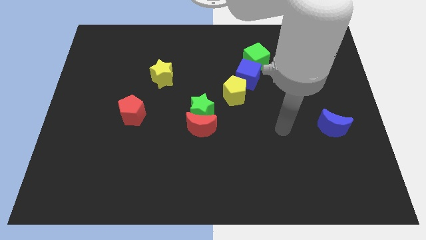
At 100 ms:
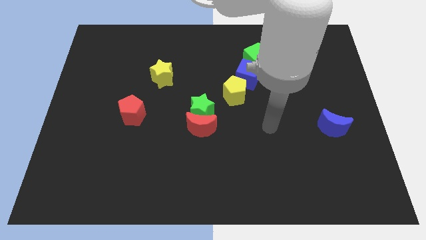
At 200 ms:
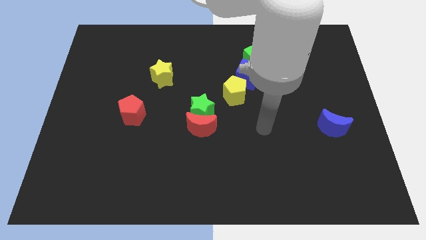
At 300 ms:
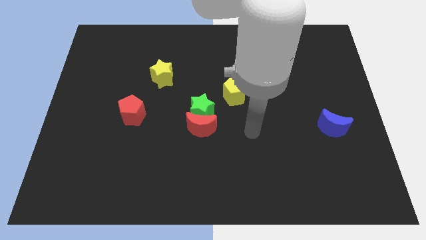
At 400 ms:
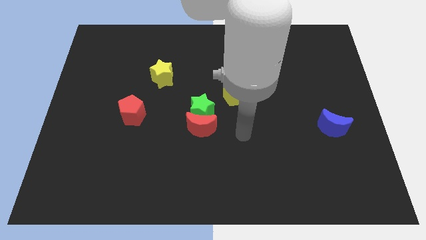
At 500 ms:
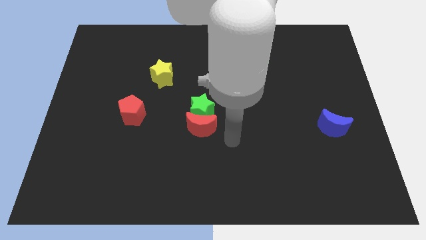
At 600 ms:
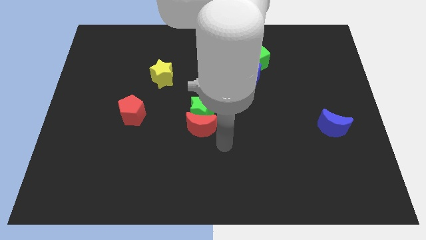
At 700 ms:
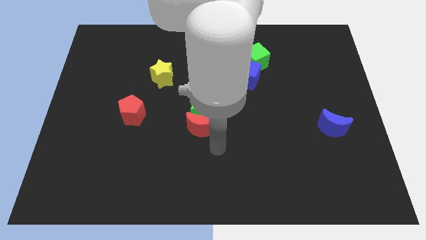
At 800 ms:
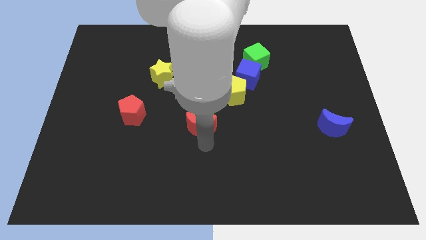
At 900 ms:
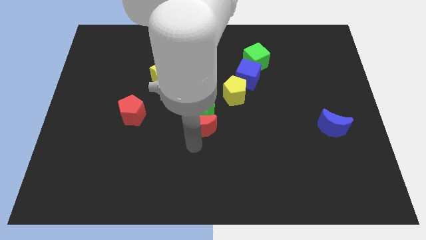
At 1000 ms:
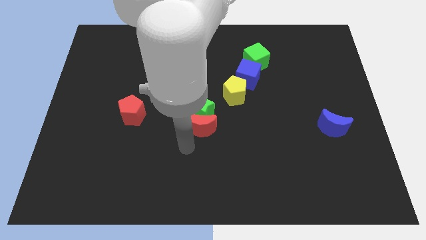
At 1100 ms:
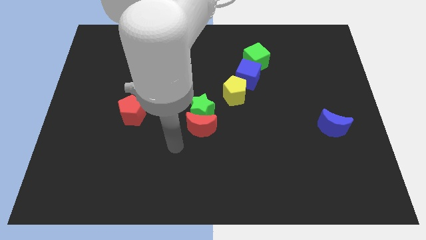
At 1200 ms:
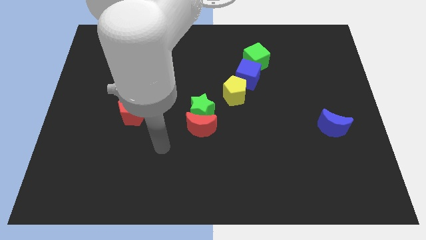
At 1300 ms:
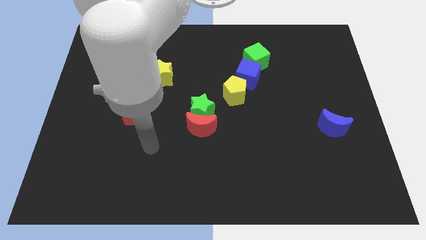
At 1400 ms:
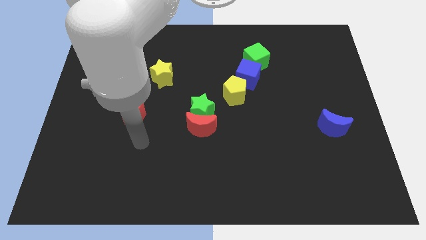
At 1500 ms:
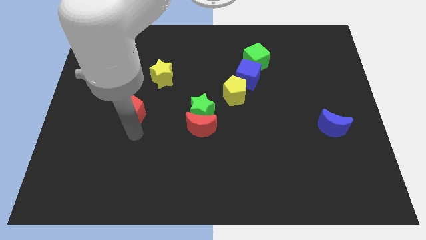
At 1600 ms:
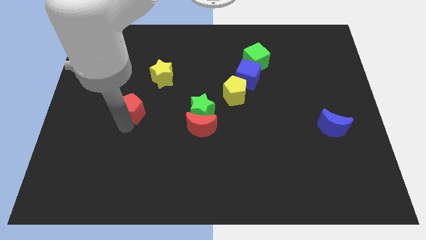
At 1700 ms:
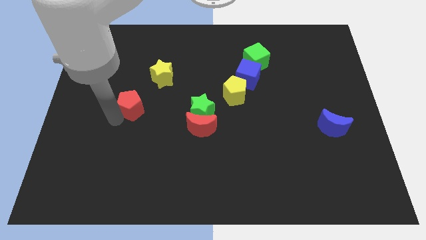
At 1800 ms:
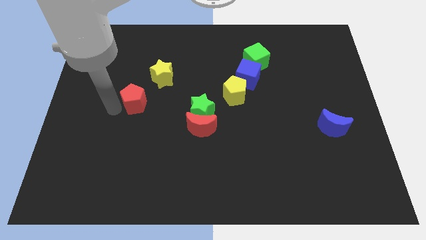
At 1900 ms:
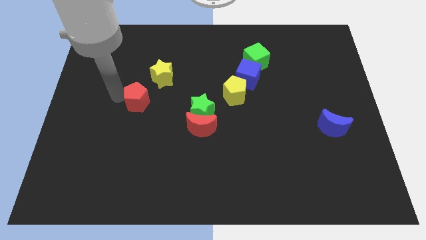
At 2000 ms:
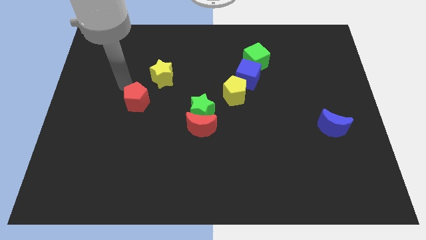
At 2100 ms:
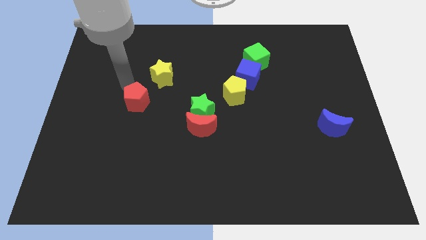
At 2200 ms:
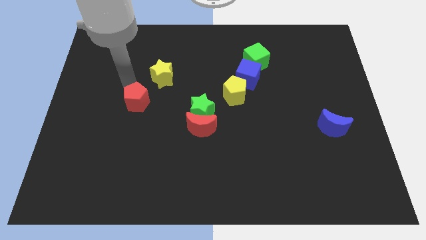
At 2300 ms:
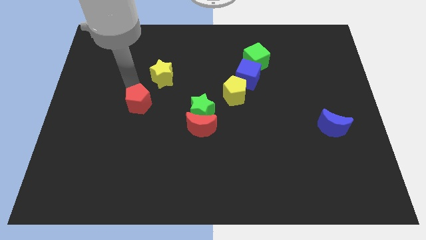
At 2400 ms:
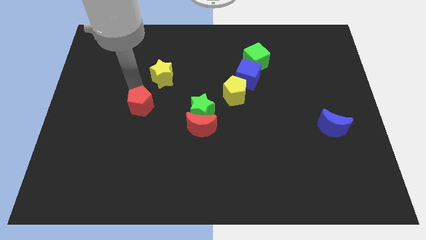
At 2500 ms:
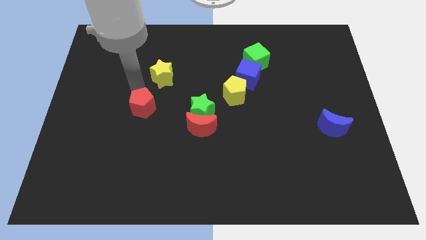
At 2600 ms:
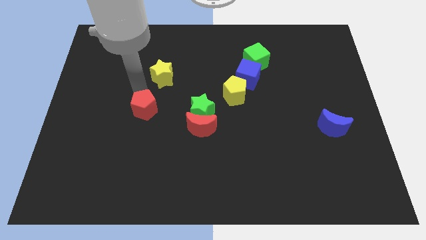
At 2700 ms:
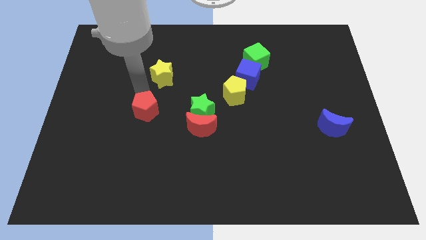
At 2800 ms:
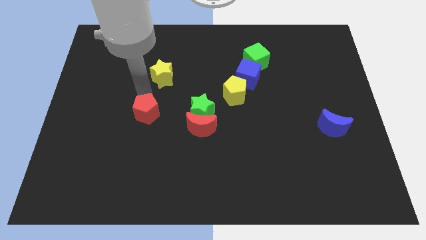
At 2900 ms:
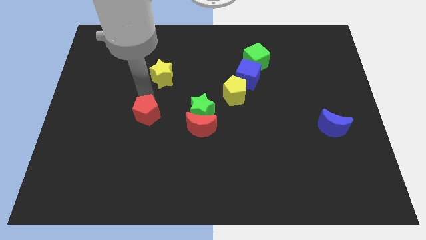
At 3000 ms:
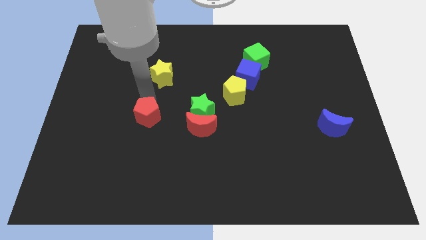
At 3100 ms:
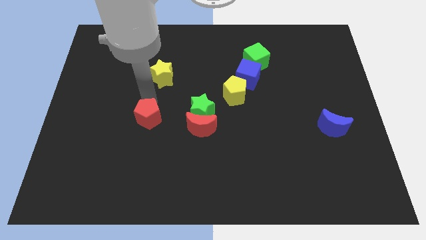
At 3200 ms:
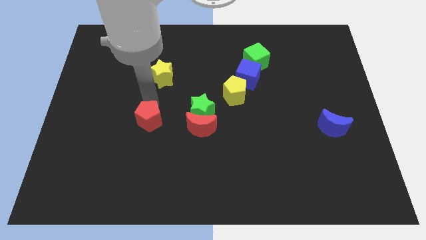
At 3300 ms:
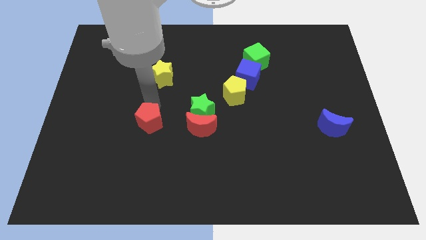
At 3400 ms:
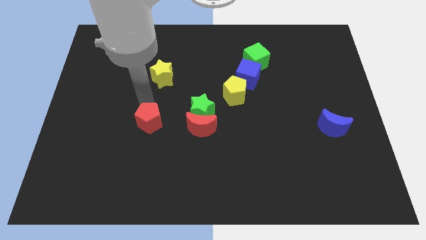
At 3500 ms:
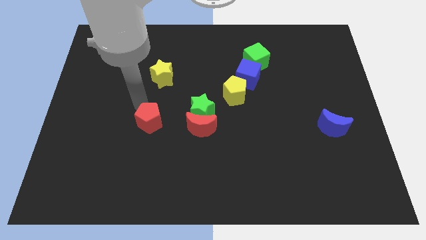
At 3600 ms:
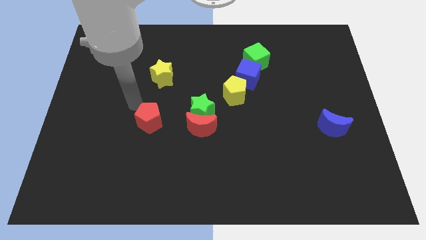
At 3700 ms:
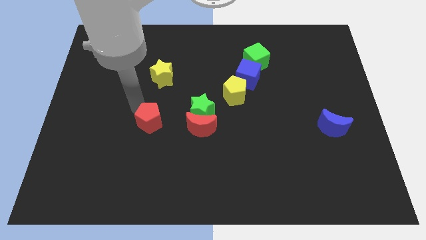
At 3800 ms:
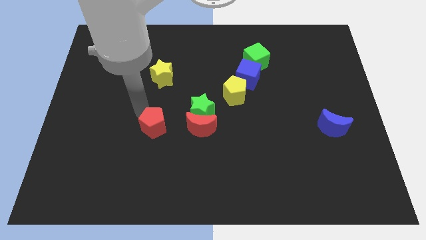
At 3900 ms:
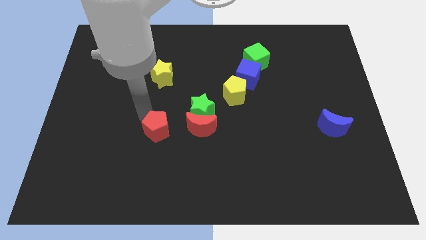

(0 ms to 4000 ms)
push the red pentagon somewhat downwards and to the right diagonally

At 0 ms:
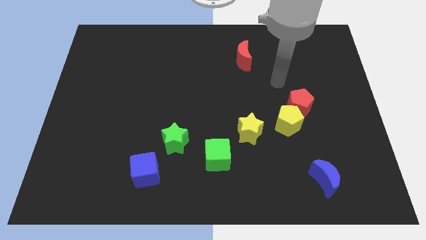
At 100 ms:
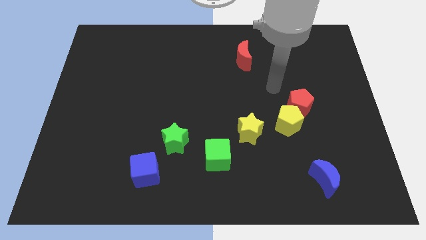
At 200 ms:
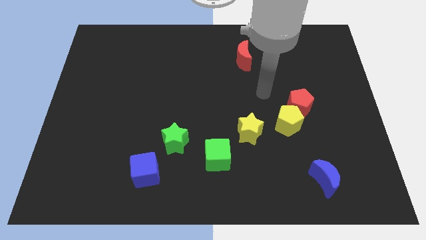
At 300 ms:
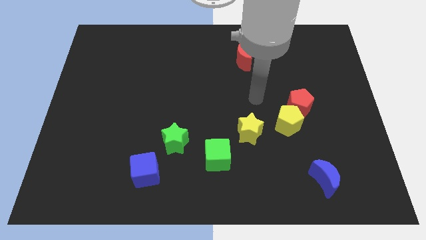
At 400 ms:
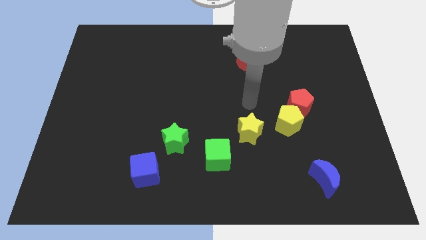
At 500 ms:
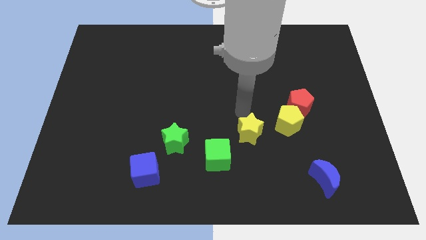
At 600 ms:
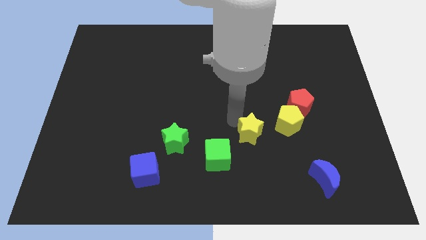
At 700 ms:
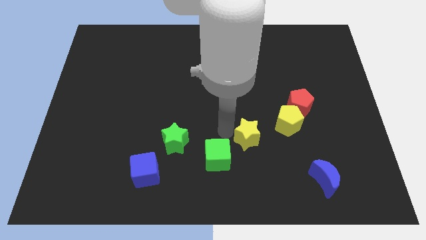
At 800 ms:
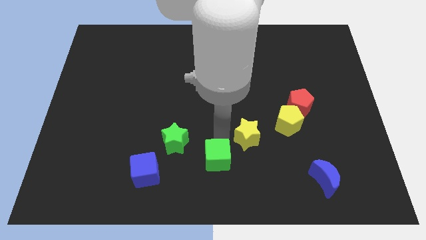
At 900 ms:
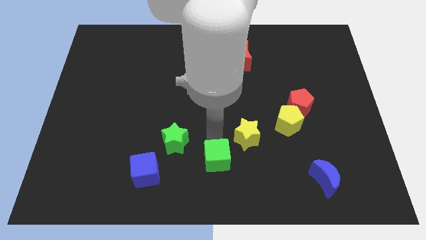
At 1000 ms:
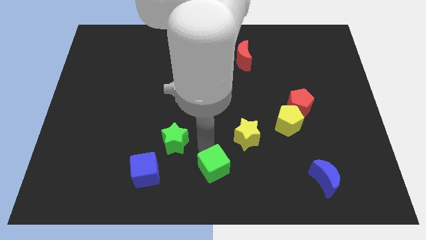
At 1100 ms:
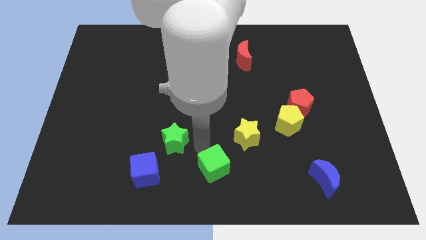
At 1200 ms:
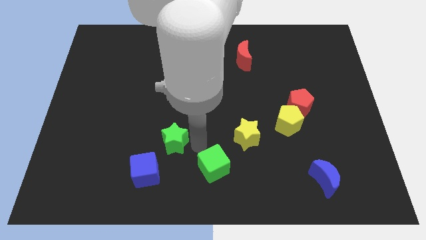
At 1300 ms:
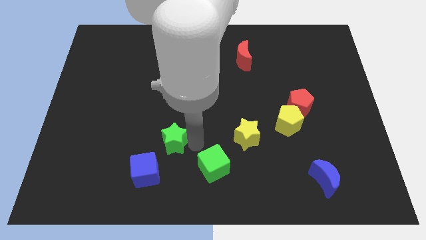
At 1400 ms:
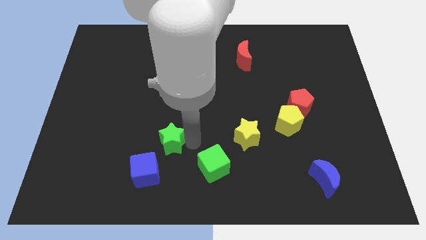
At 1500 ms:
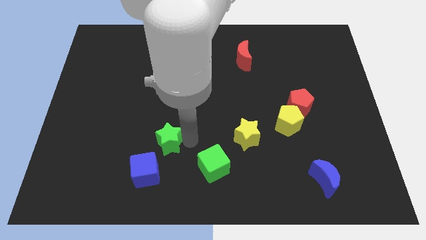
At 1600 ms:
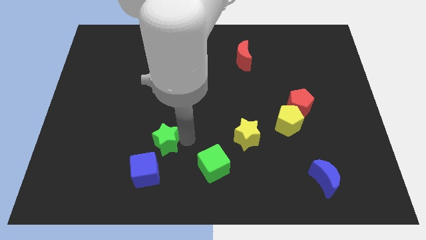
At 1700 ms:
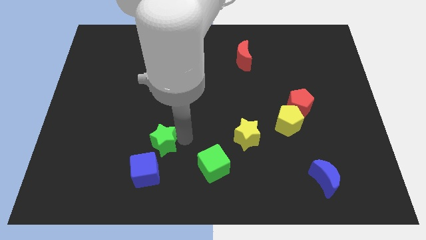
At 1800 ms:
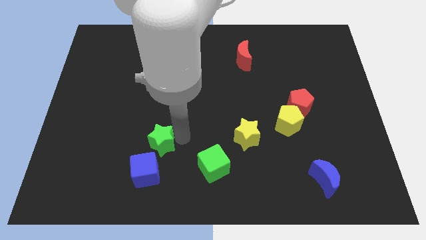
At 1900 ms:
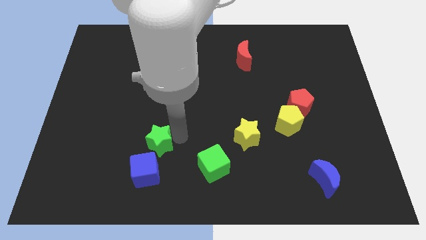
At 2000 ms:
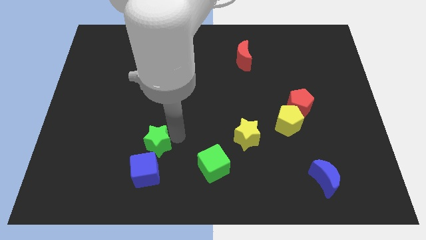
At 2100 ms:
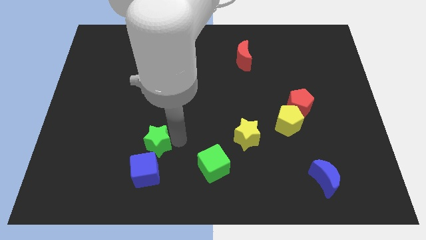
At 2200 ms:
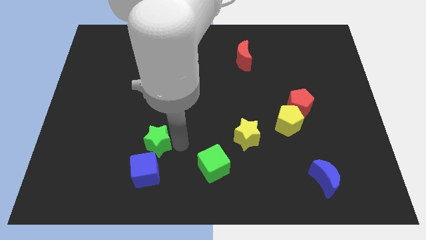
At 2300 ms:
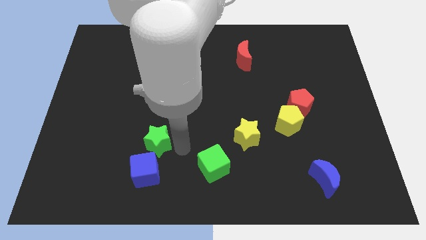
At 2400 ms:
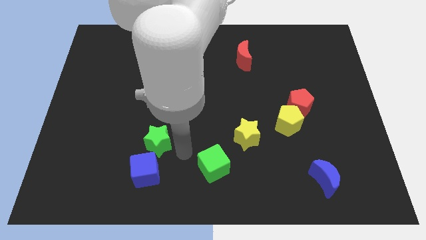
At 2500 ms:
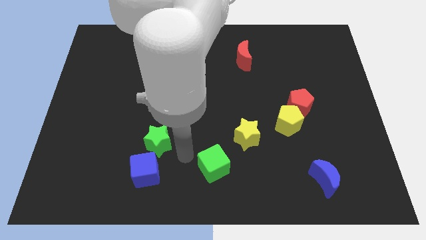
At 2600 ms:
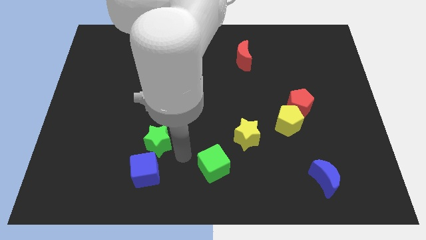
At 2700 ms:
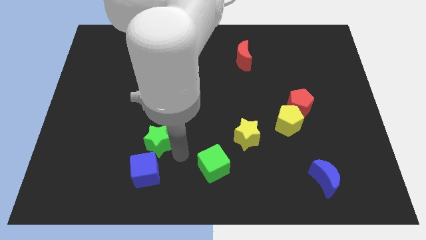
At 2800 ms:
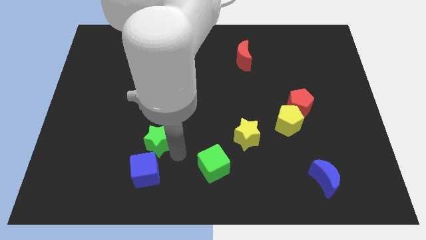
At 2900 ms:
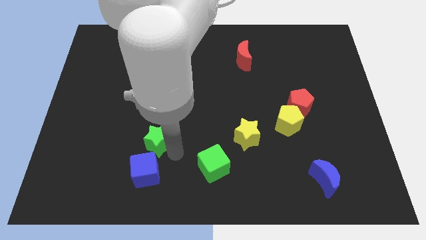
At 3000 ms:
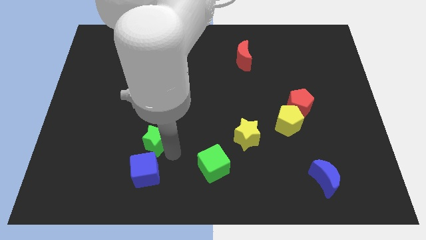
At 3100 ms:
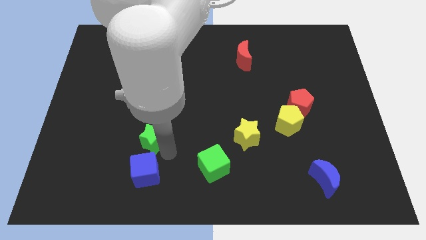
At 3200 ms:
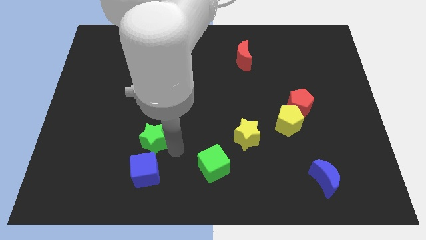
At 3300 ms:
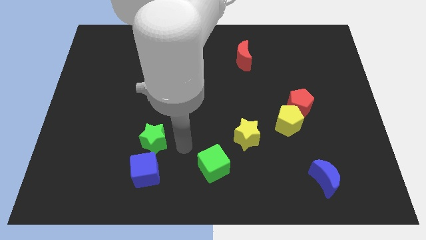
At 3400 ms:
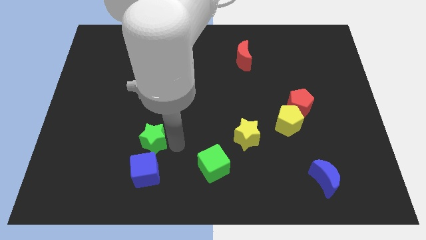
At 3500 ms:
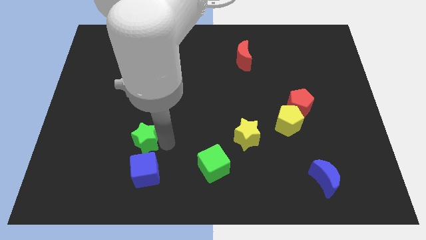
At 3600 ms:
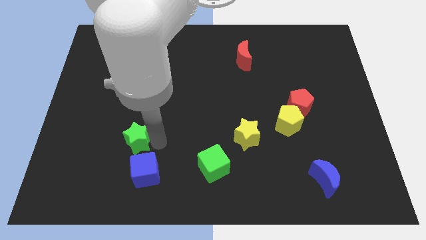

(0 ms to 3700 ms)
move the green star left somewhat
